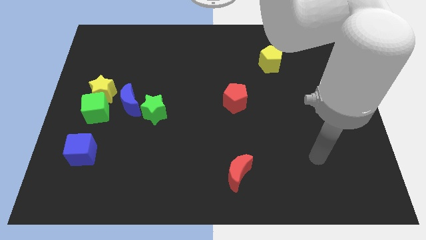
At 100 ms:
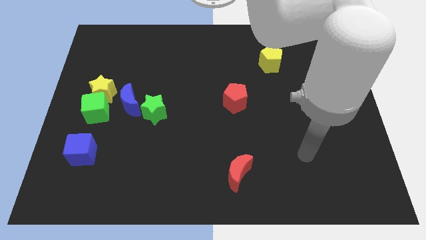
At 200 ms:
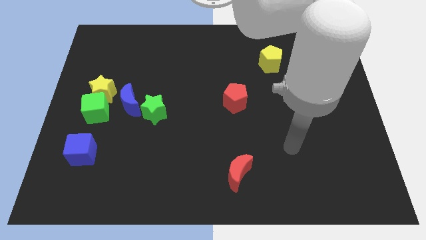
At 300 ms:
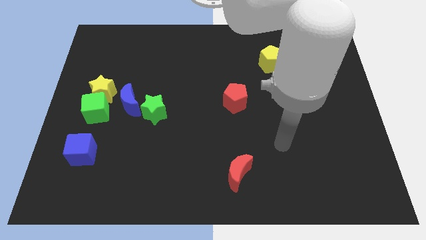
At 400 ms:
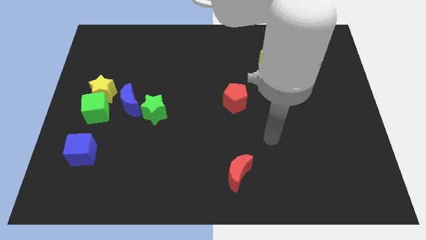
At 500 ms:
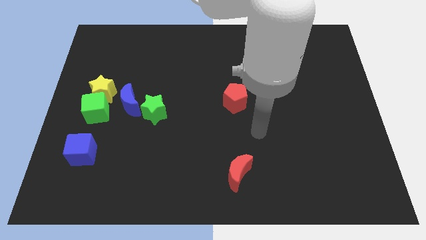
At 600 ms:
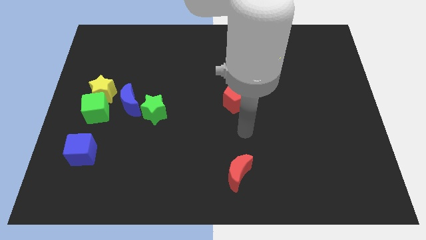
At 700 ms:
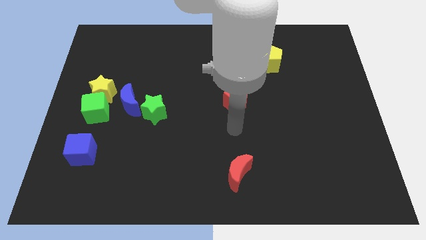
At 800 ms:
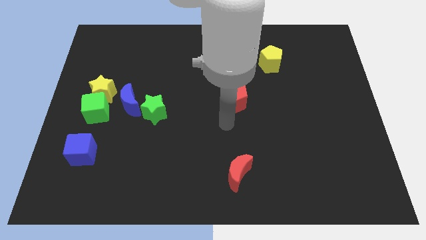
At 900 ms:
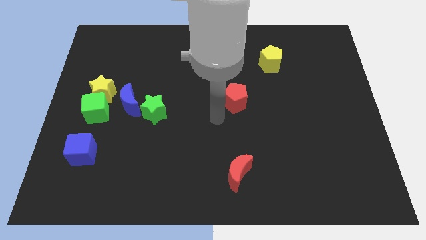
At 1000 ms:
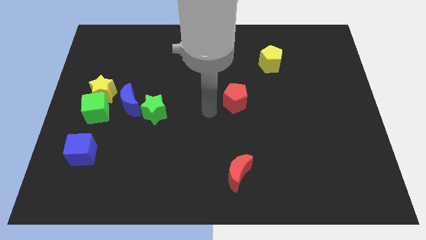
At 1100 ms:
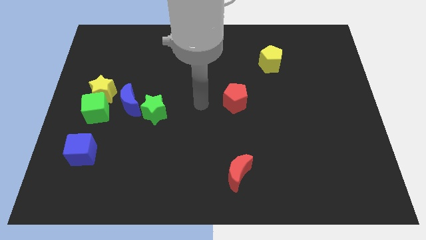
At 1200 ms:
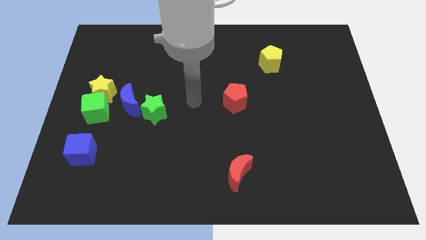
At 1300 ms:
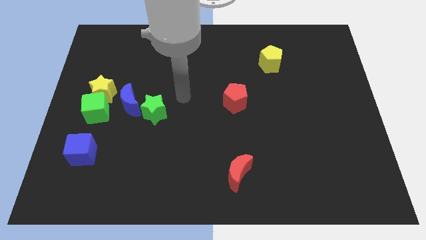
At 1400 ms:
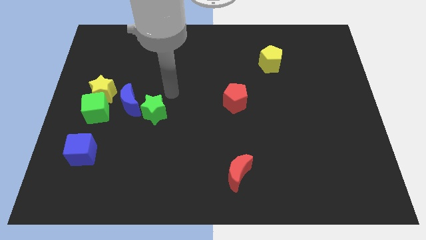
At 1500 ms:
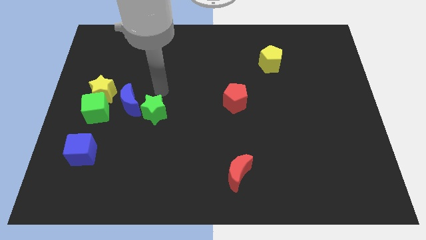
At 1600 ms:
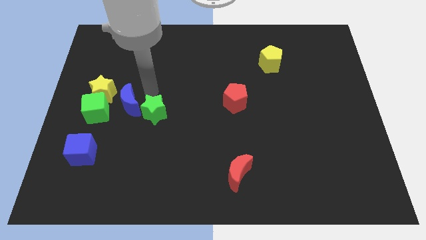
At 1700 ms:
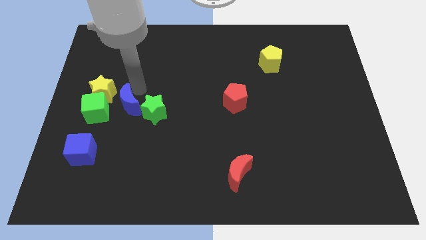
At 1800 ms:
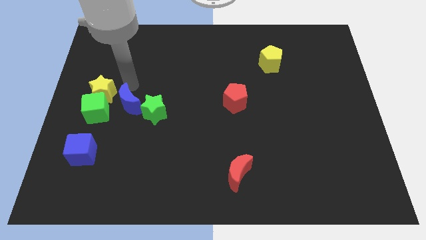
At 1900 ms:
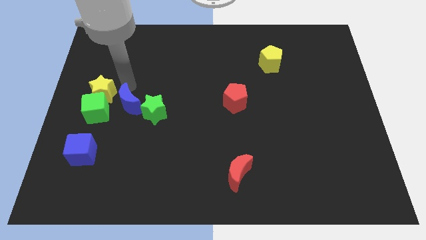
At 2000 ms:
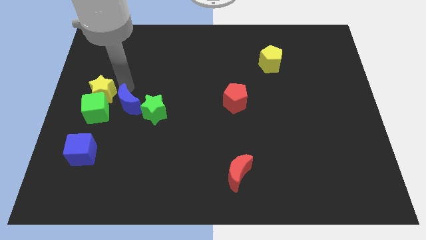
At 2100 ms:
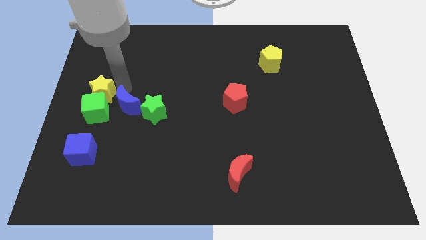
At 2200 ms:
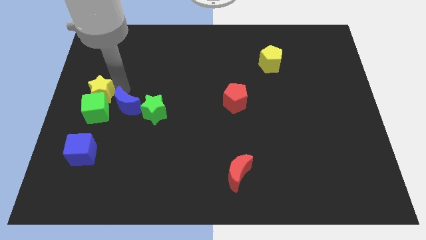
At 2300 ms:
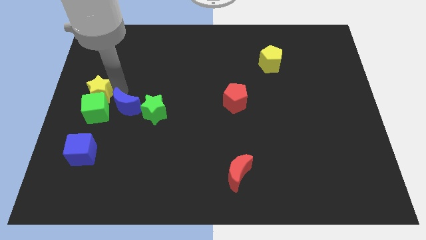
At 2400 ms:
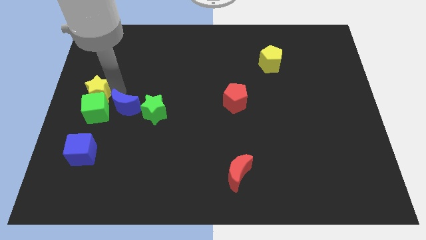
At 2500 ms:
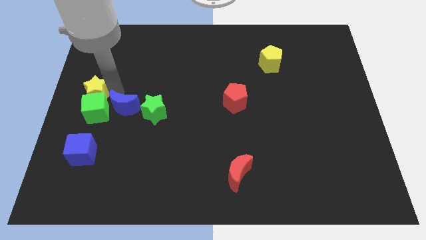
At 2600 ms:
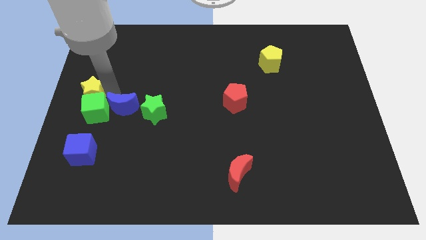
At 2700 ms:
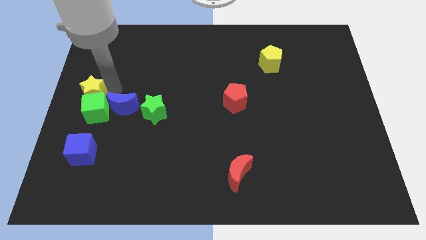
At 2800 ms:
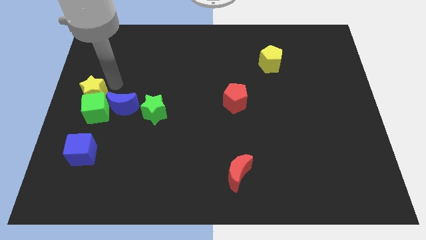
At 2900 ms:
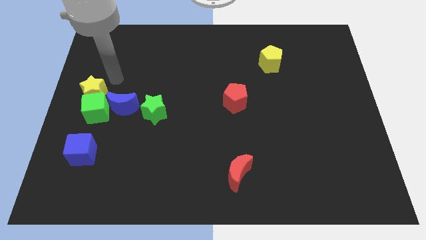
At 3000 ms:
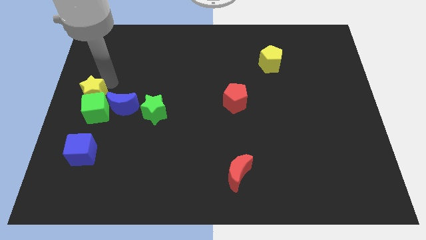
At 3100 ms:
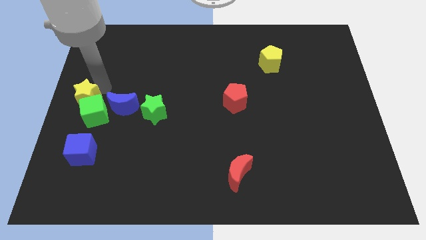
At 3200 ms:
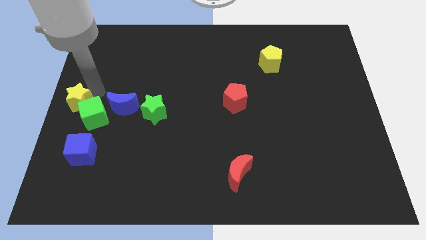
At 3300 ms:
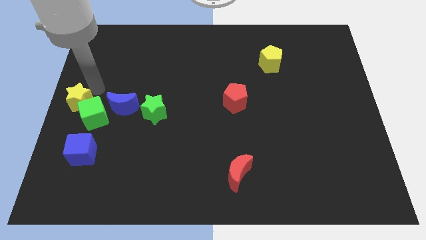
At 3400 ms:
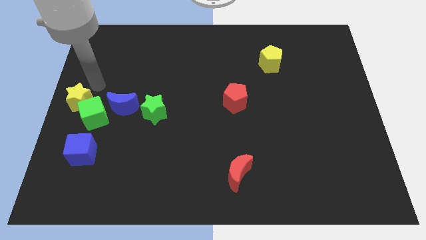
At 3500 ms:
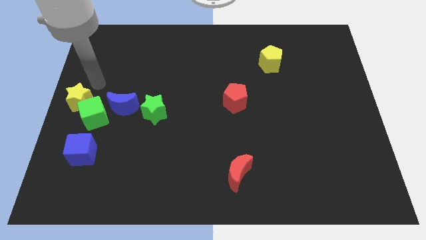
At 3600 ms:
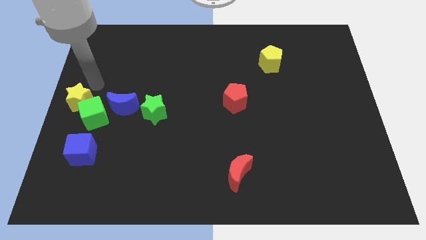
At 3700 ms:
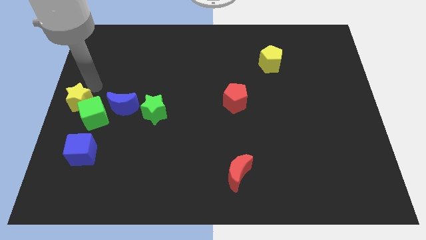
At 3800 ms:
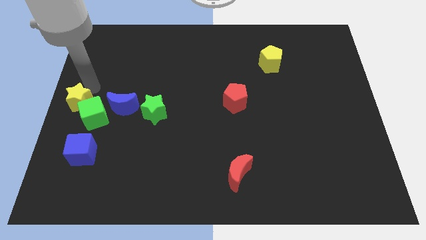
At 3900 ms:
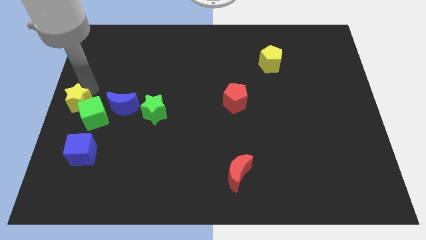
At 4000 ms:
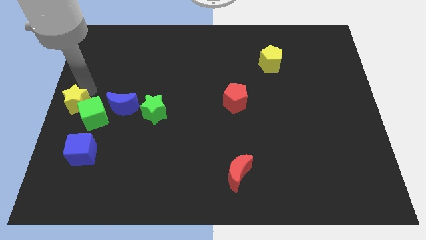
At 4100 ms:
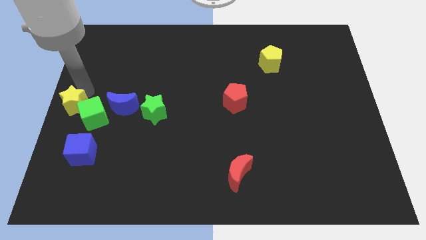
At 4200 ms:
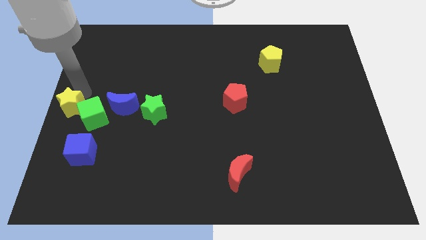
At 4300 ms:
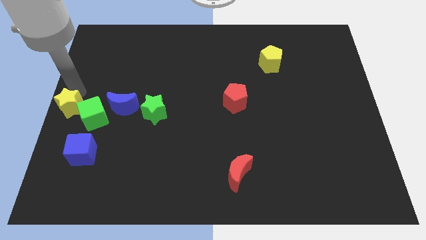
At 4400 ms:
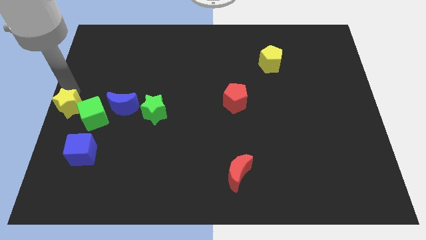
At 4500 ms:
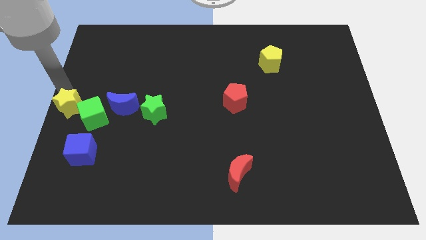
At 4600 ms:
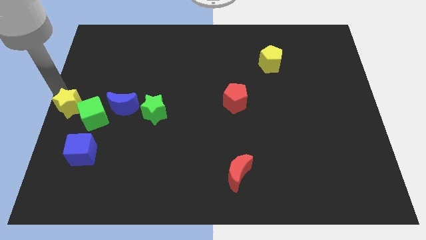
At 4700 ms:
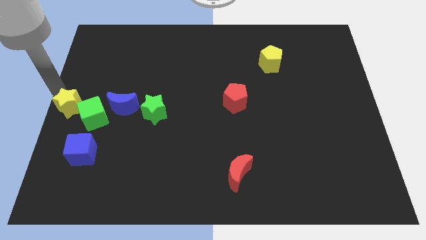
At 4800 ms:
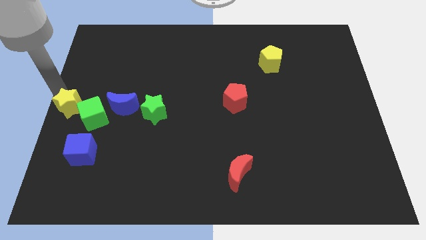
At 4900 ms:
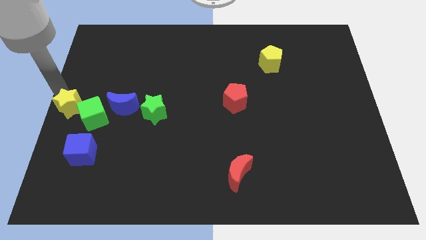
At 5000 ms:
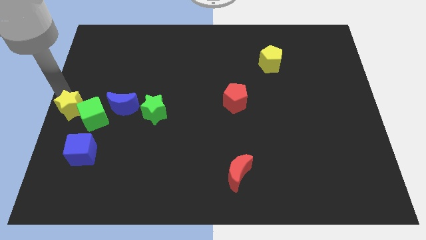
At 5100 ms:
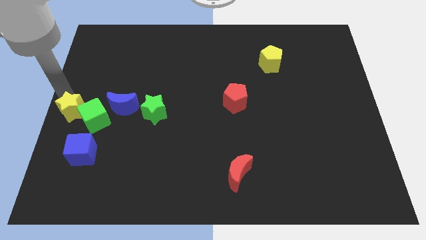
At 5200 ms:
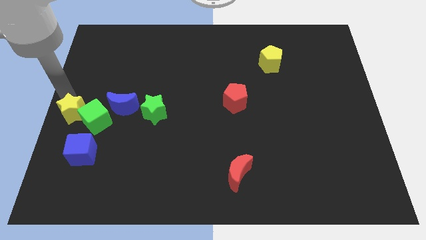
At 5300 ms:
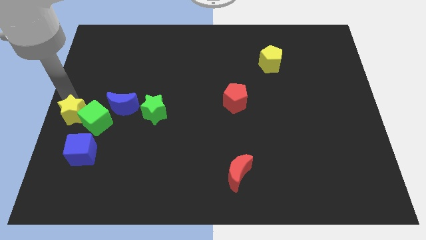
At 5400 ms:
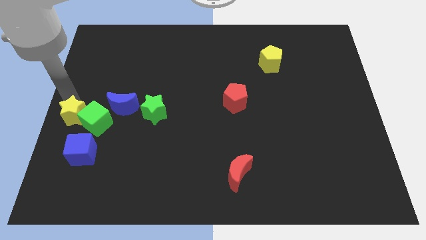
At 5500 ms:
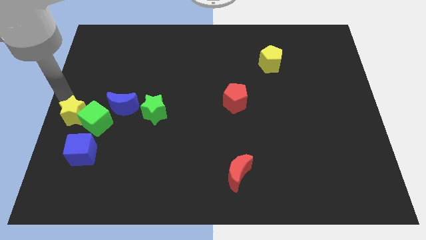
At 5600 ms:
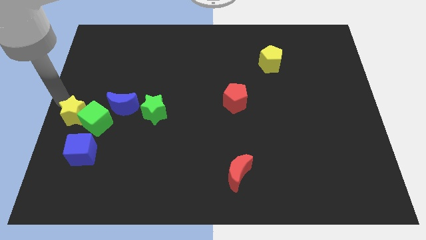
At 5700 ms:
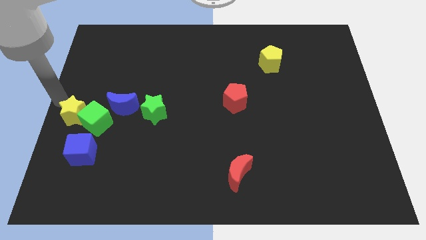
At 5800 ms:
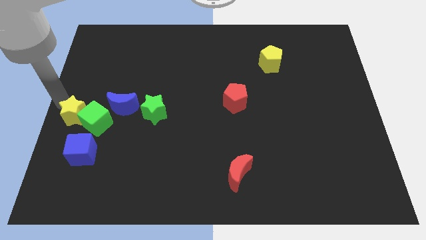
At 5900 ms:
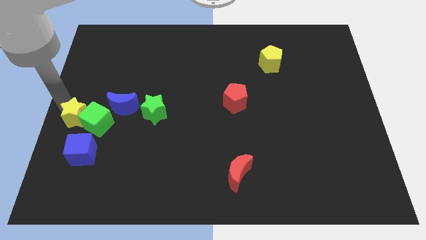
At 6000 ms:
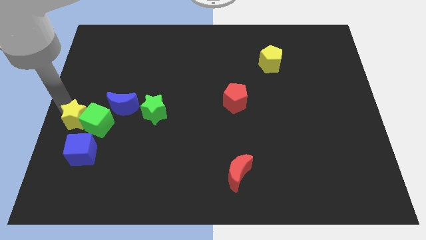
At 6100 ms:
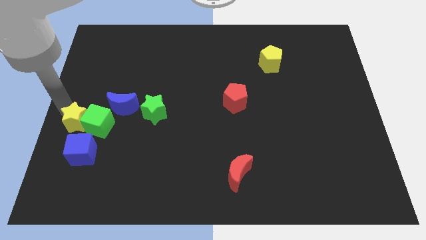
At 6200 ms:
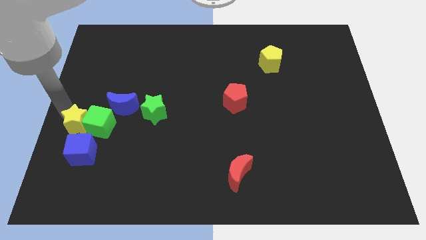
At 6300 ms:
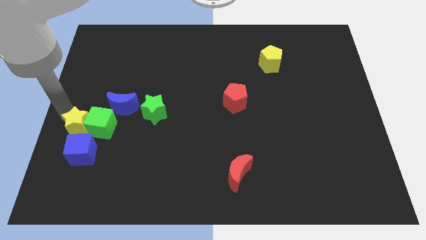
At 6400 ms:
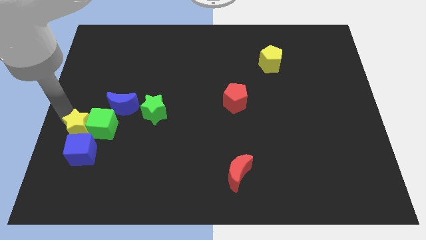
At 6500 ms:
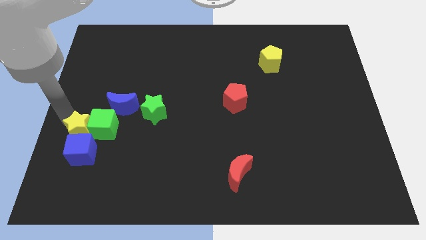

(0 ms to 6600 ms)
put the yellow star close to the blue cube

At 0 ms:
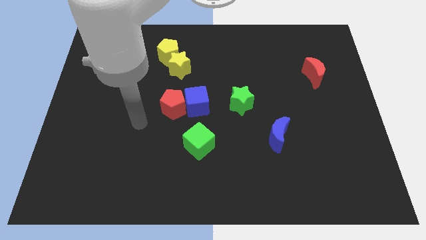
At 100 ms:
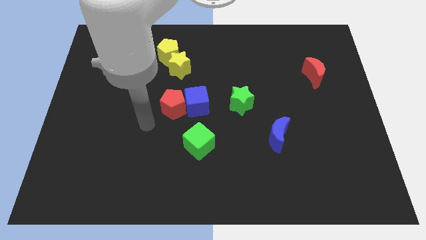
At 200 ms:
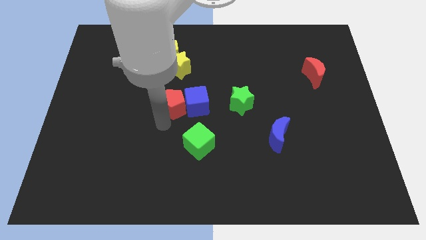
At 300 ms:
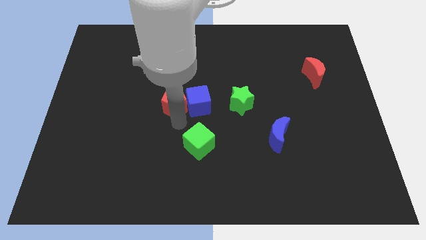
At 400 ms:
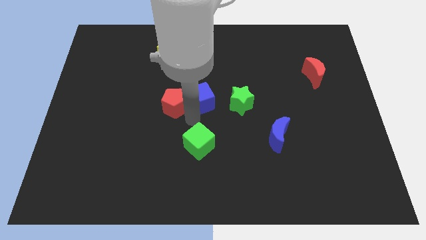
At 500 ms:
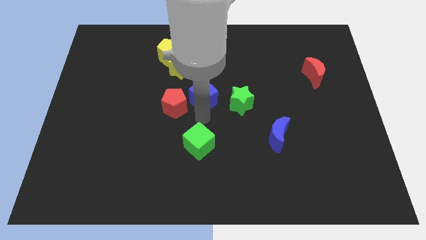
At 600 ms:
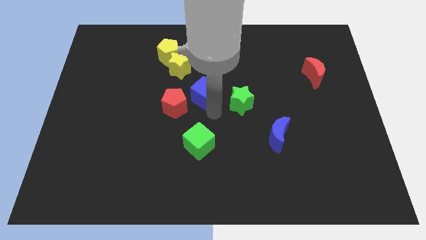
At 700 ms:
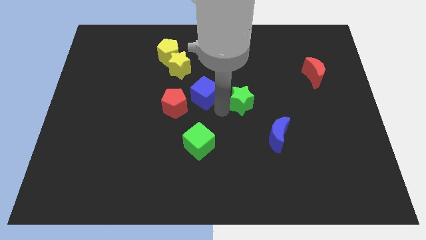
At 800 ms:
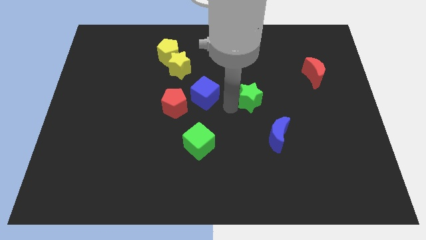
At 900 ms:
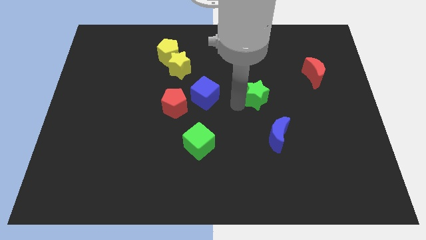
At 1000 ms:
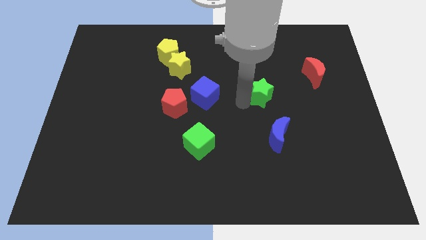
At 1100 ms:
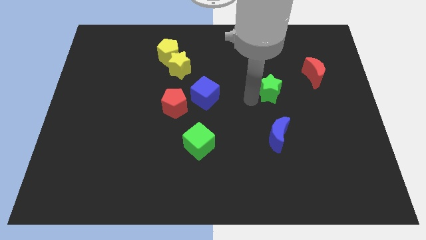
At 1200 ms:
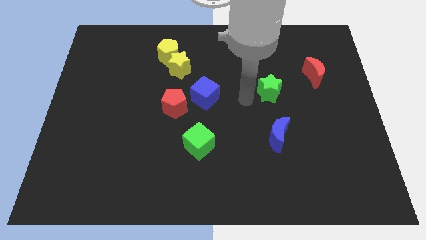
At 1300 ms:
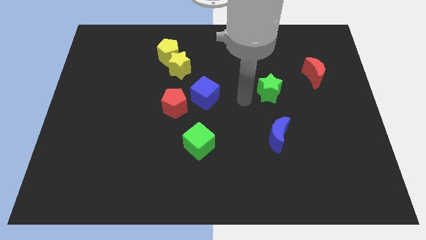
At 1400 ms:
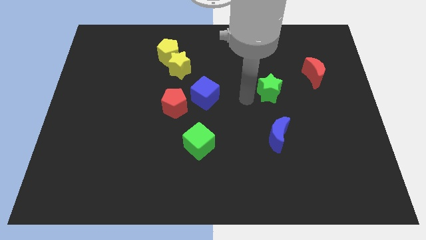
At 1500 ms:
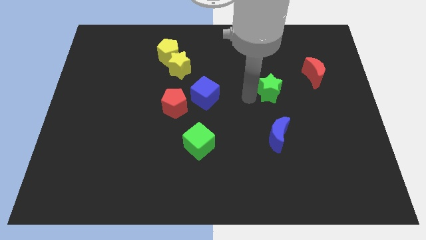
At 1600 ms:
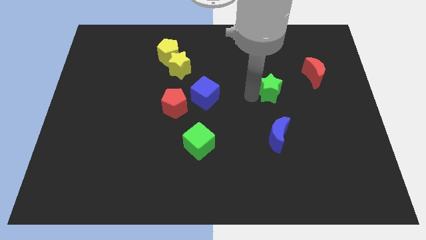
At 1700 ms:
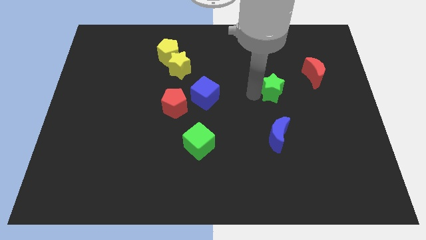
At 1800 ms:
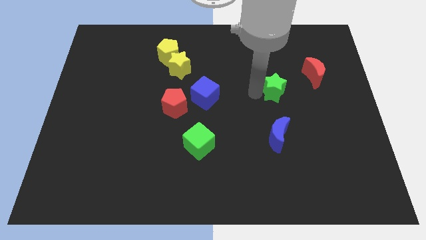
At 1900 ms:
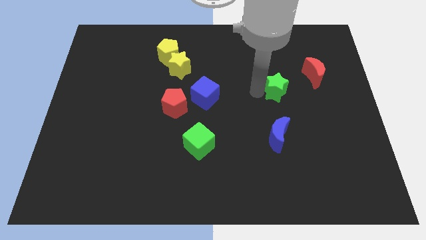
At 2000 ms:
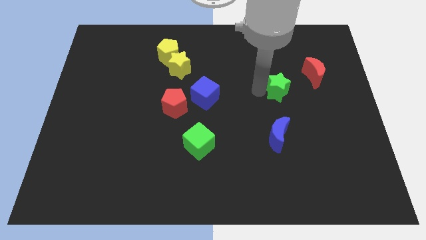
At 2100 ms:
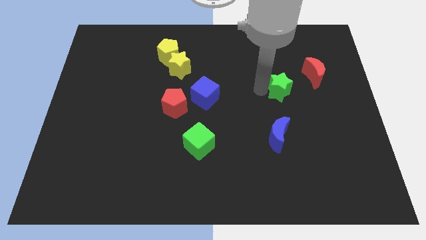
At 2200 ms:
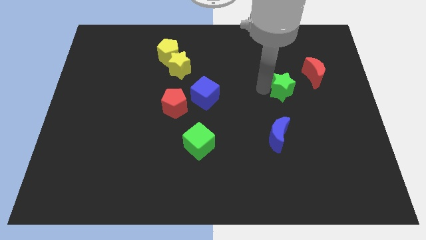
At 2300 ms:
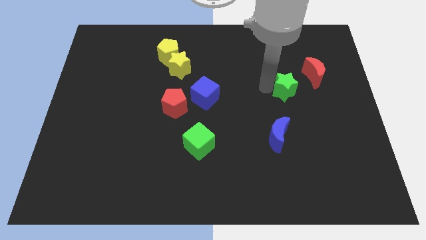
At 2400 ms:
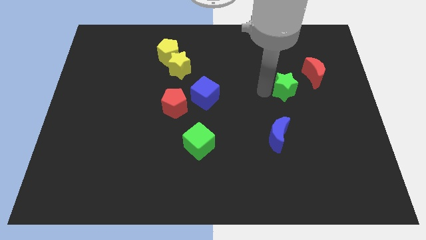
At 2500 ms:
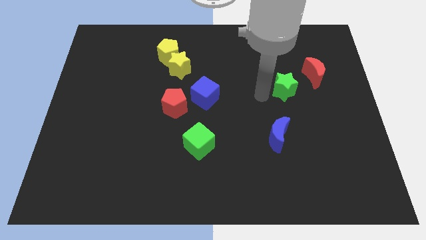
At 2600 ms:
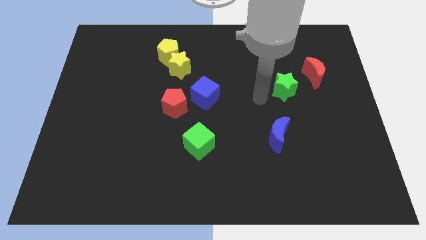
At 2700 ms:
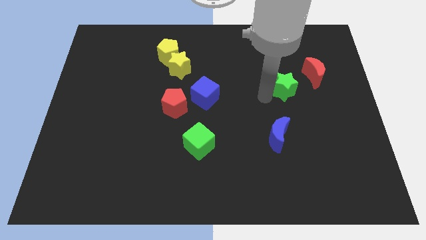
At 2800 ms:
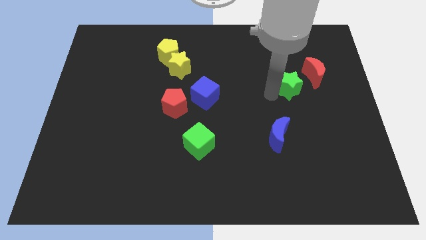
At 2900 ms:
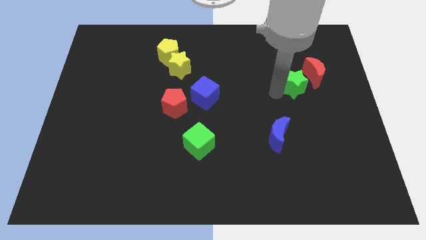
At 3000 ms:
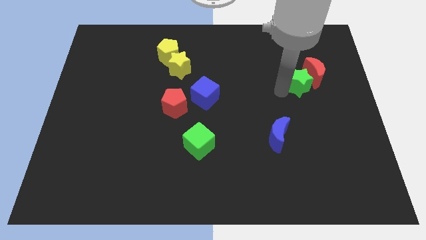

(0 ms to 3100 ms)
slide the green star towards the red moon
